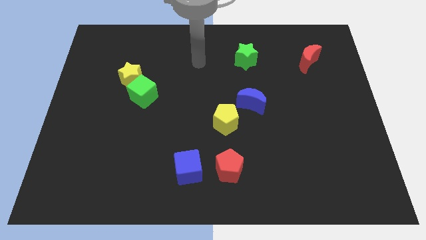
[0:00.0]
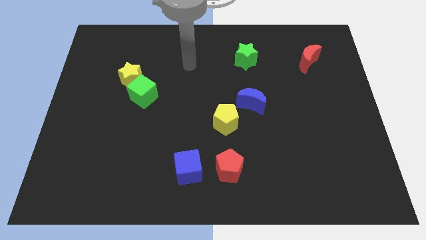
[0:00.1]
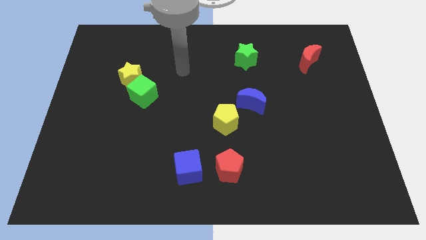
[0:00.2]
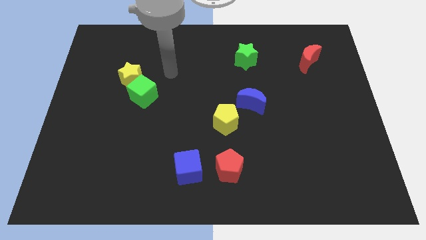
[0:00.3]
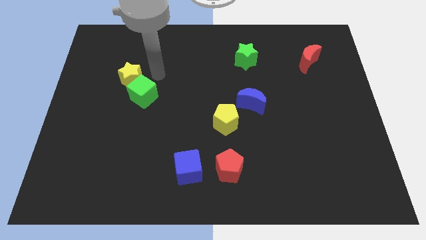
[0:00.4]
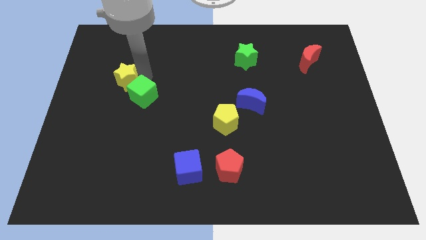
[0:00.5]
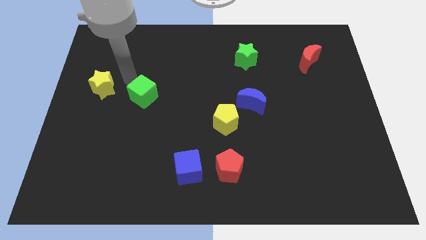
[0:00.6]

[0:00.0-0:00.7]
move the green cube away from the yellow star

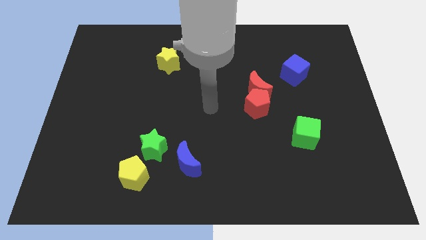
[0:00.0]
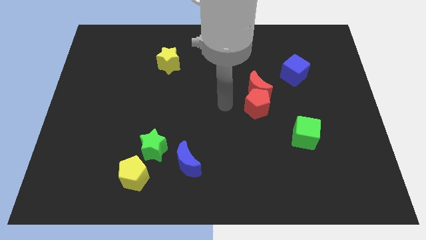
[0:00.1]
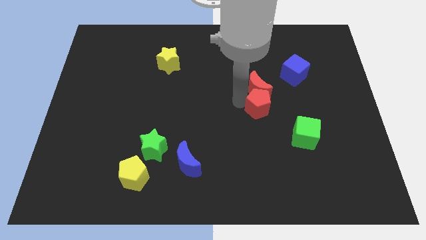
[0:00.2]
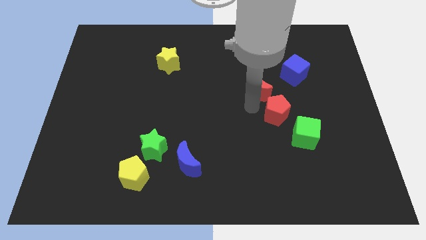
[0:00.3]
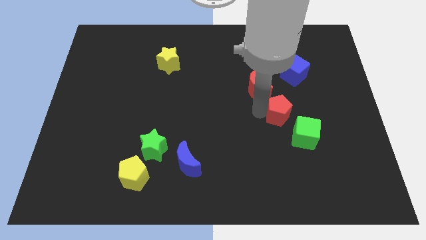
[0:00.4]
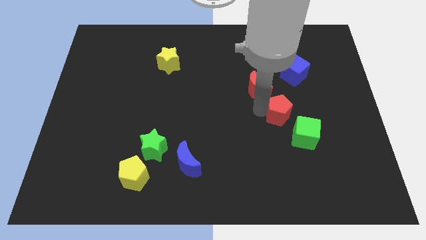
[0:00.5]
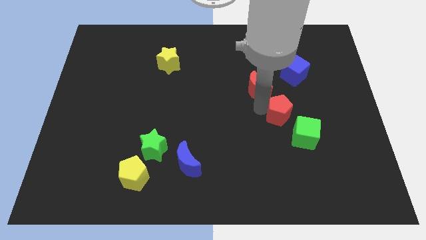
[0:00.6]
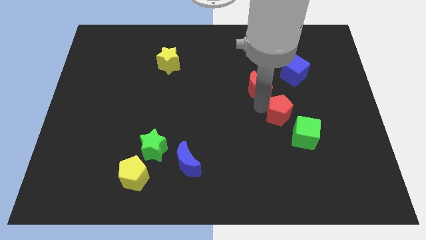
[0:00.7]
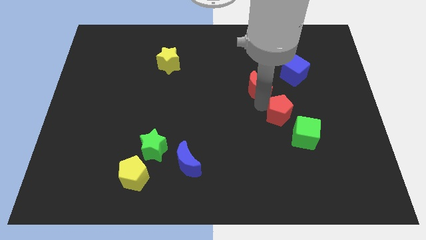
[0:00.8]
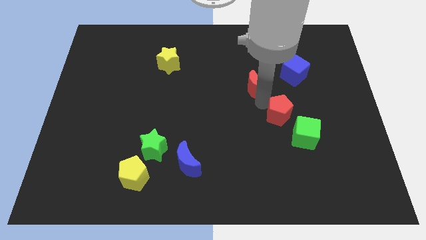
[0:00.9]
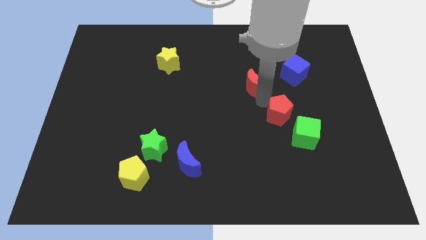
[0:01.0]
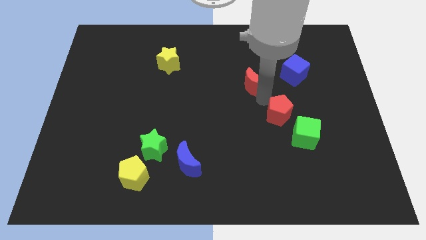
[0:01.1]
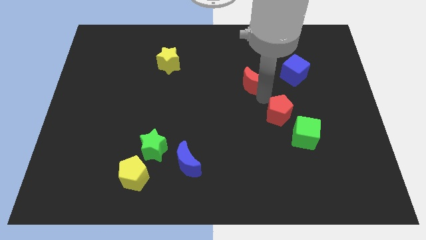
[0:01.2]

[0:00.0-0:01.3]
pull the red moon apart from the red pentagon

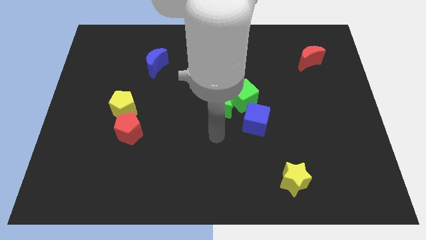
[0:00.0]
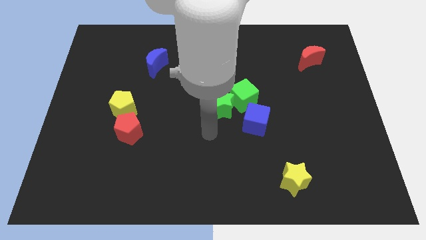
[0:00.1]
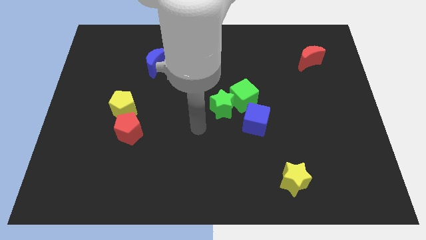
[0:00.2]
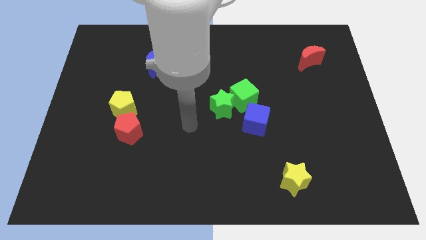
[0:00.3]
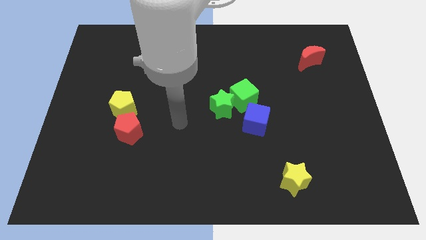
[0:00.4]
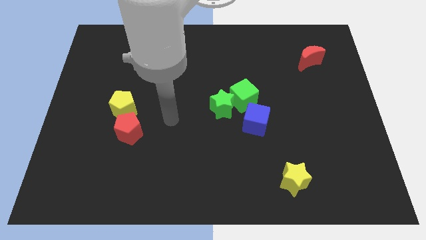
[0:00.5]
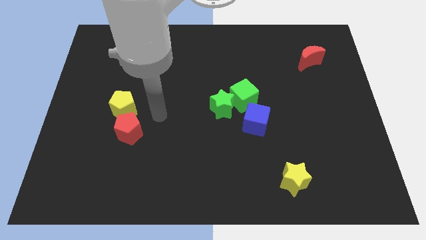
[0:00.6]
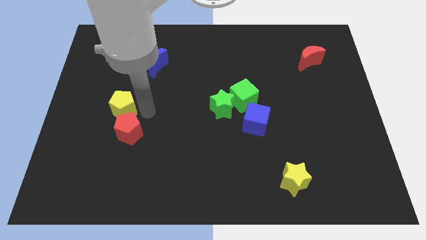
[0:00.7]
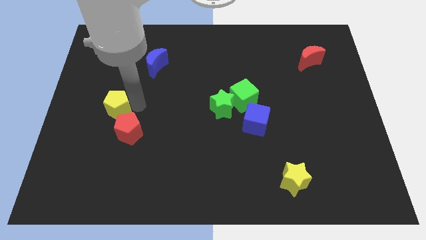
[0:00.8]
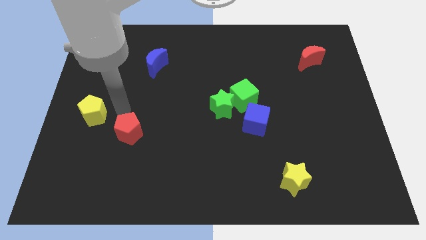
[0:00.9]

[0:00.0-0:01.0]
separate the red pentagon from the yellow pentagon

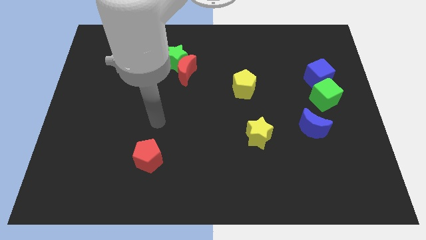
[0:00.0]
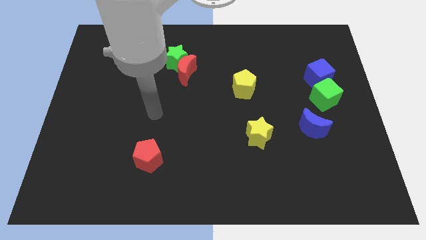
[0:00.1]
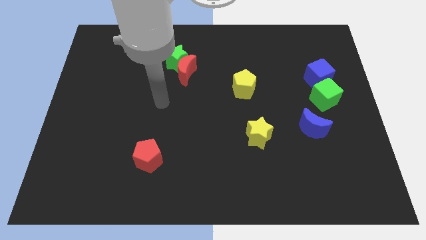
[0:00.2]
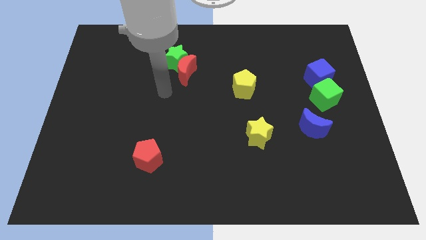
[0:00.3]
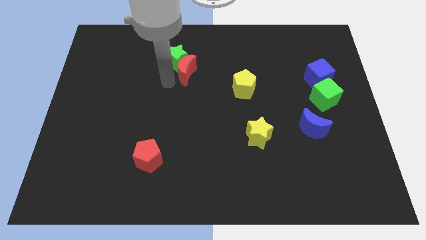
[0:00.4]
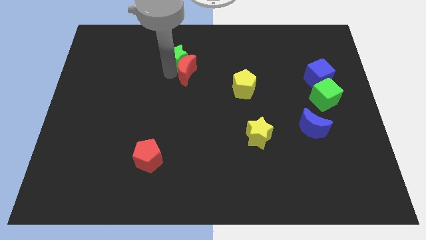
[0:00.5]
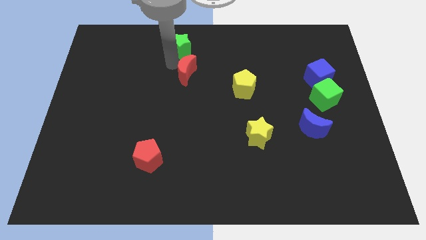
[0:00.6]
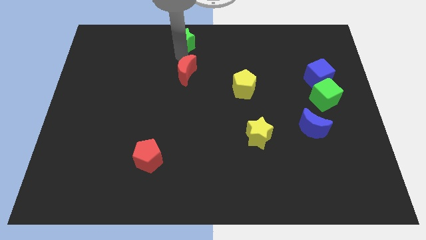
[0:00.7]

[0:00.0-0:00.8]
pull the red moon apart from the green star

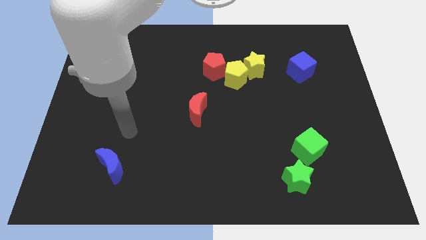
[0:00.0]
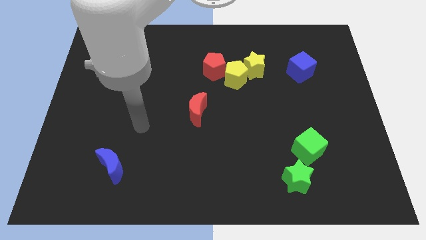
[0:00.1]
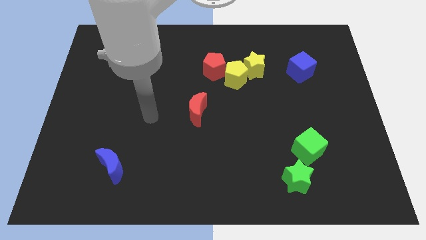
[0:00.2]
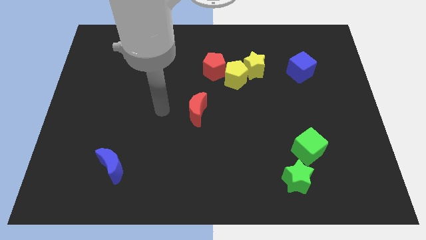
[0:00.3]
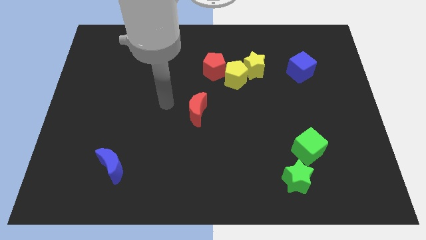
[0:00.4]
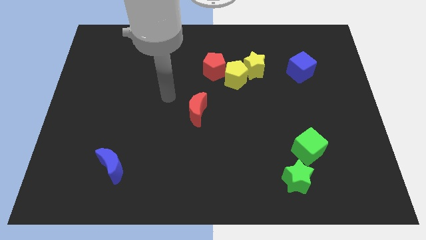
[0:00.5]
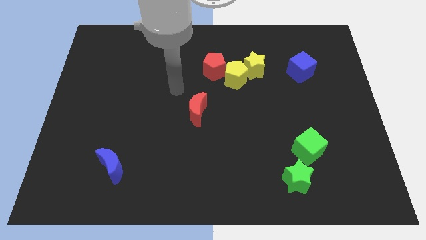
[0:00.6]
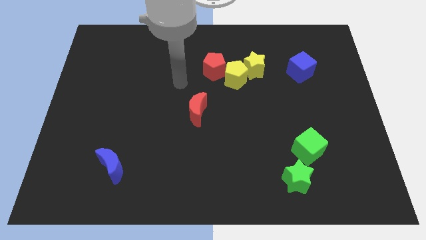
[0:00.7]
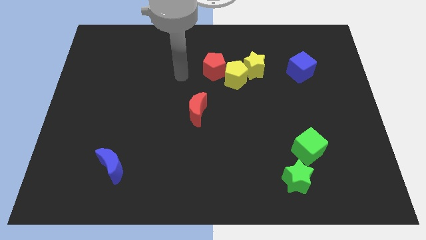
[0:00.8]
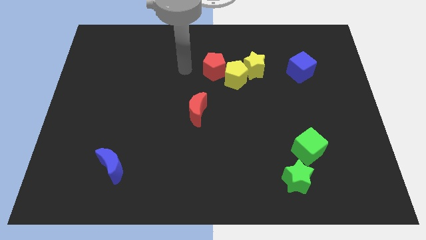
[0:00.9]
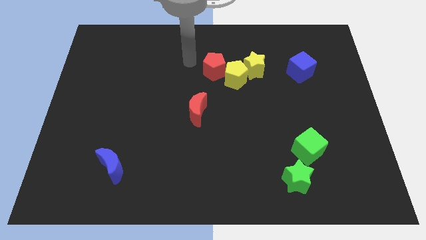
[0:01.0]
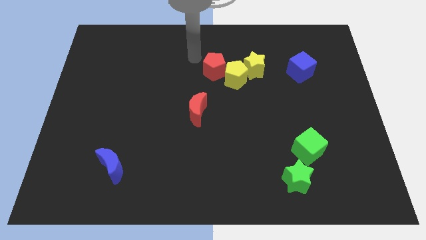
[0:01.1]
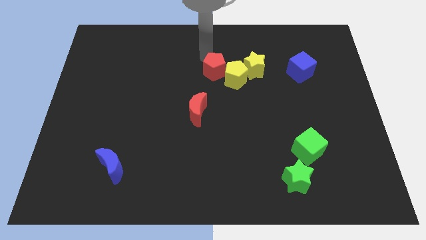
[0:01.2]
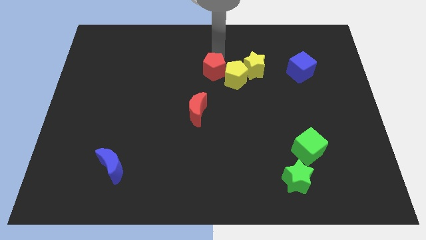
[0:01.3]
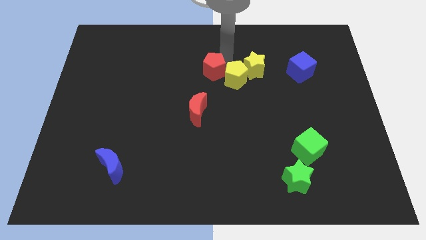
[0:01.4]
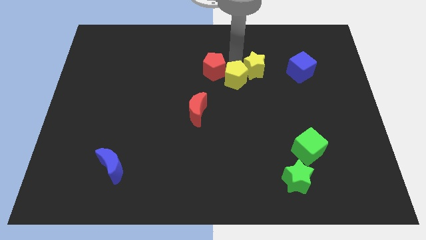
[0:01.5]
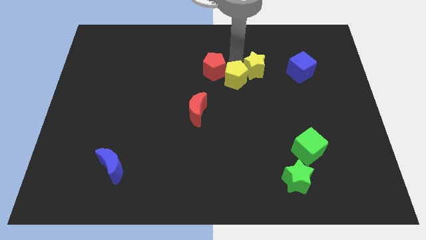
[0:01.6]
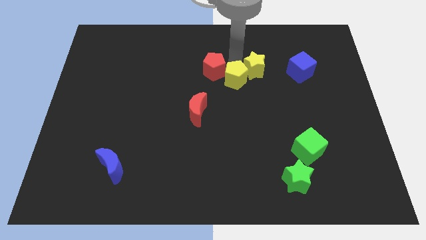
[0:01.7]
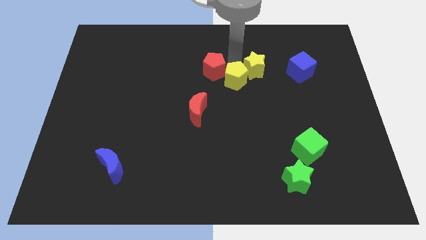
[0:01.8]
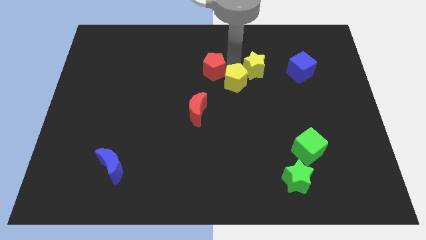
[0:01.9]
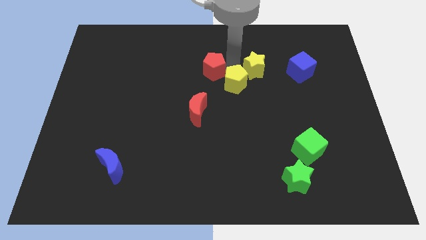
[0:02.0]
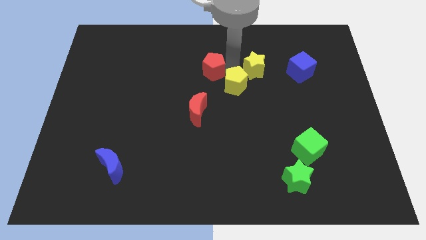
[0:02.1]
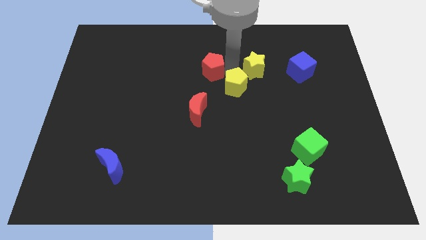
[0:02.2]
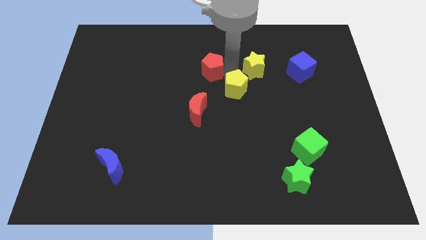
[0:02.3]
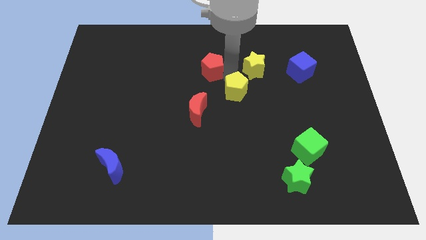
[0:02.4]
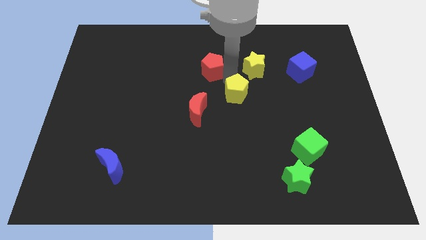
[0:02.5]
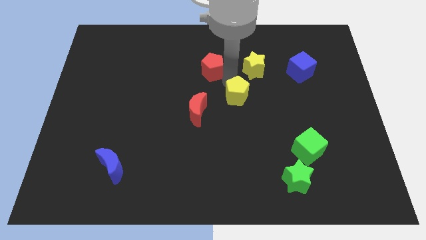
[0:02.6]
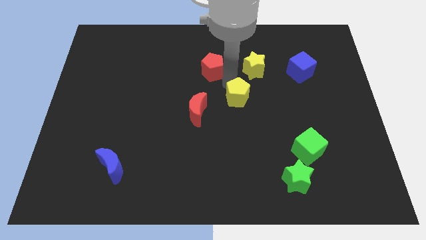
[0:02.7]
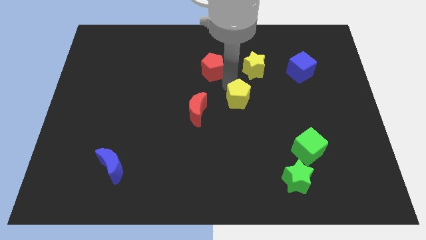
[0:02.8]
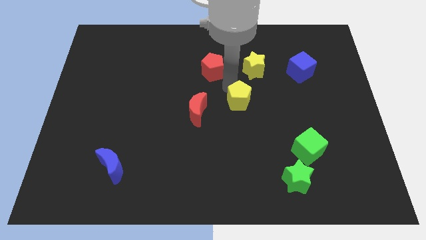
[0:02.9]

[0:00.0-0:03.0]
separate the yellow pentagon from the yellow star and red pentagon

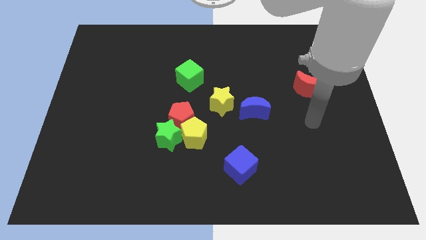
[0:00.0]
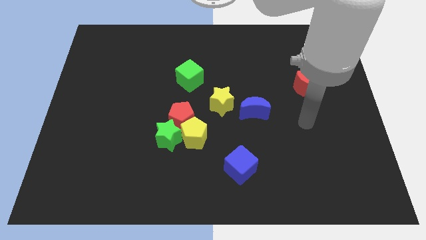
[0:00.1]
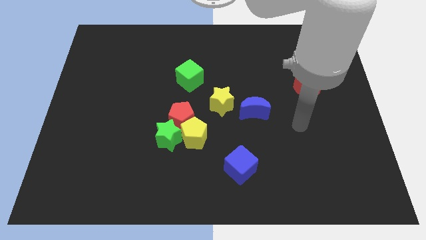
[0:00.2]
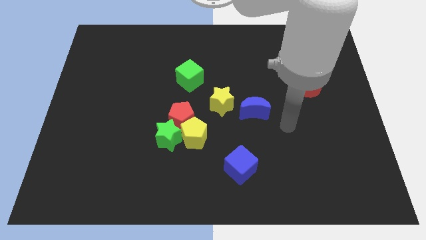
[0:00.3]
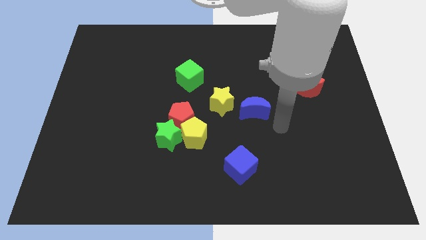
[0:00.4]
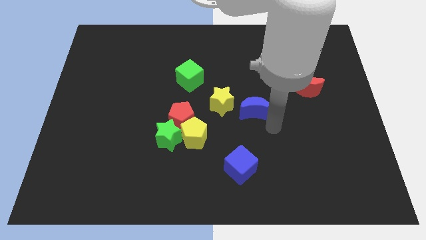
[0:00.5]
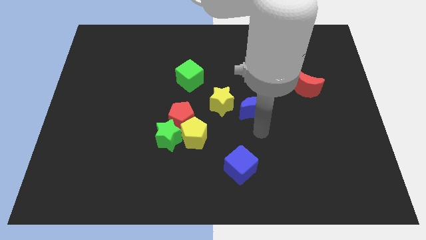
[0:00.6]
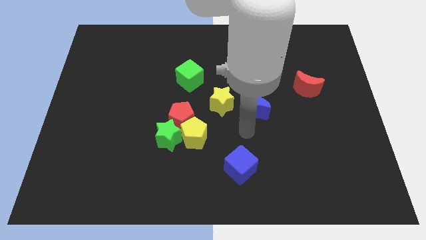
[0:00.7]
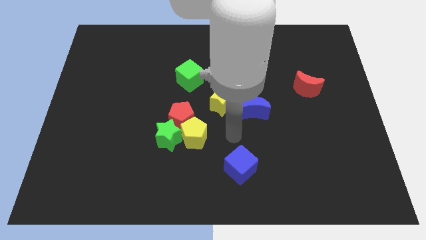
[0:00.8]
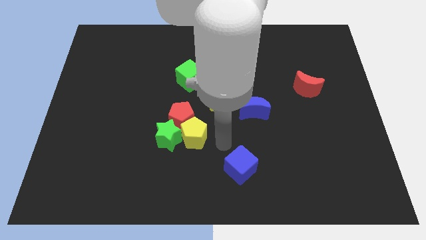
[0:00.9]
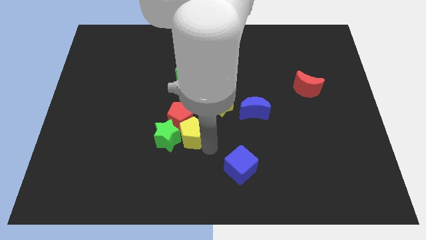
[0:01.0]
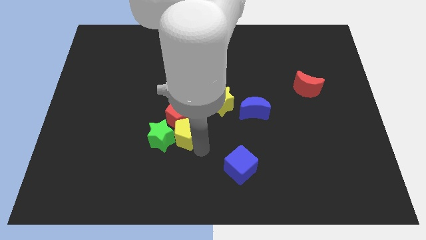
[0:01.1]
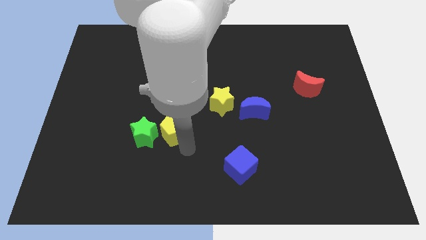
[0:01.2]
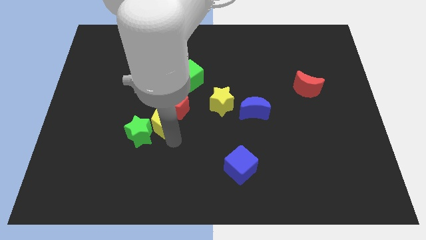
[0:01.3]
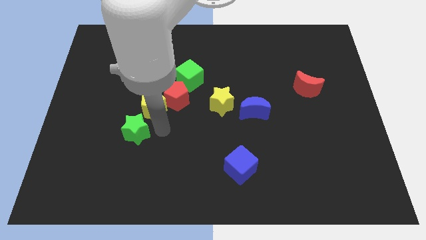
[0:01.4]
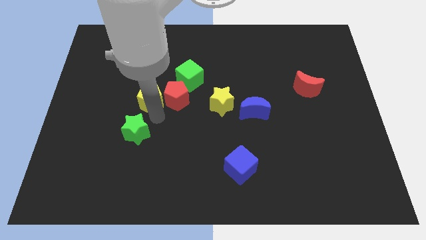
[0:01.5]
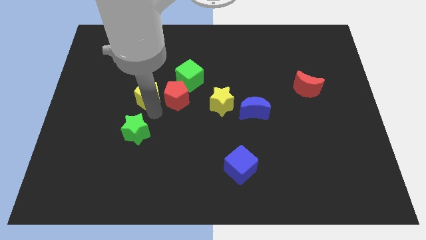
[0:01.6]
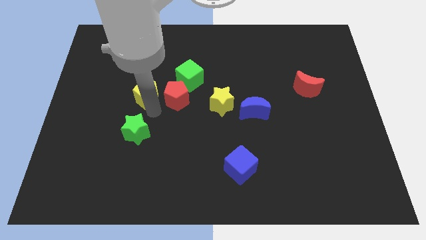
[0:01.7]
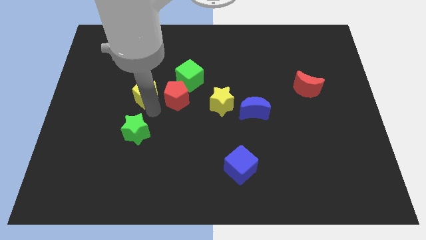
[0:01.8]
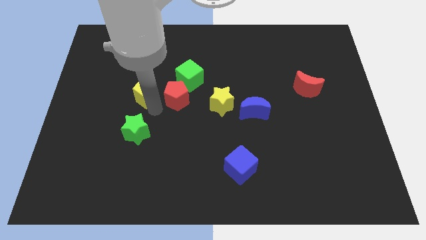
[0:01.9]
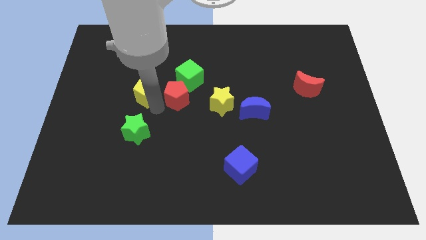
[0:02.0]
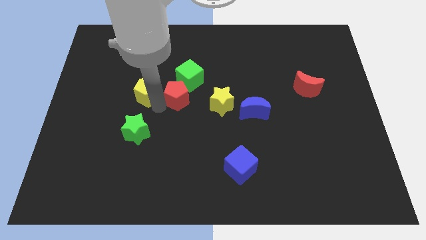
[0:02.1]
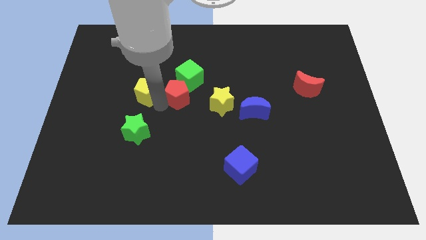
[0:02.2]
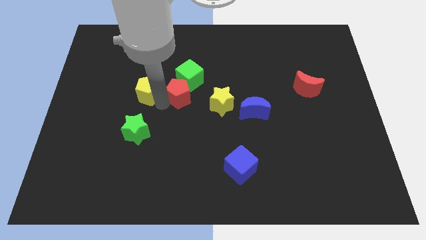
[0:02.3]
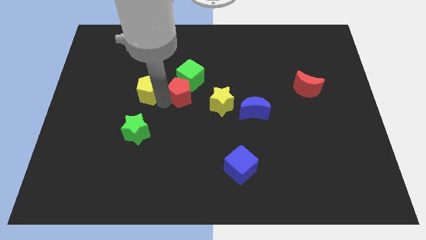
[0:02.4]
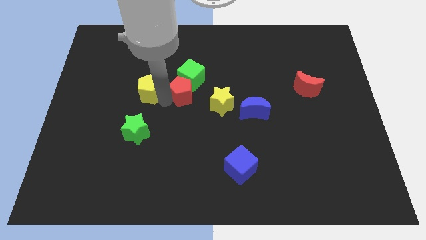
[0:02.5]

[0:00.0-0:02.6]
move the red pentagon away from the yellow pentagon and green star

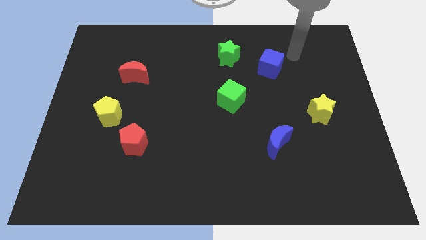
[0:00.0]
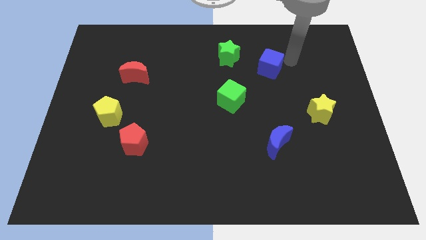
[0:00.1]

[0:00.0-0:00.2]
pull the red pentagon apart from the yellow pentagon
